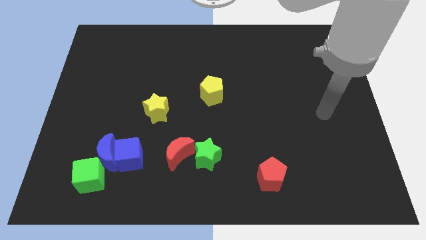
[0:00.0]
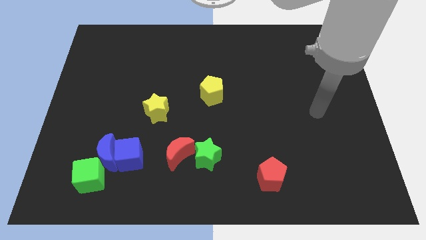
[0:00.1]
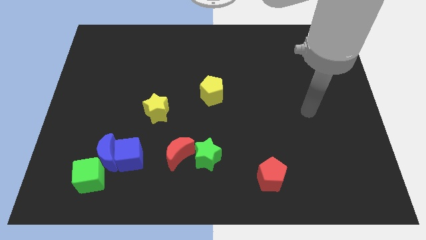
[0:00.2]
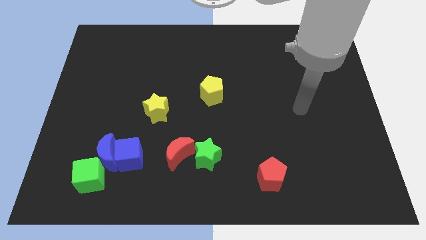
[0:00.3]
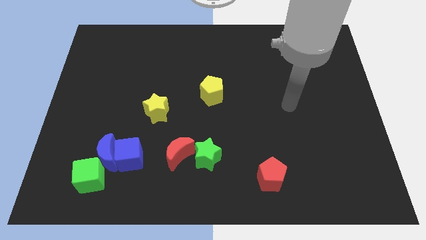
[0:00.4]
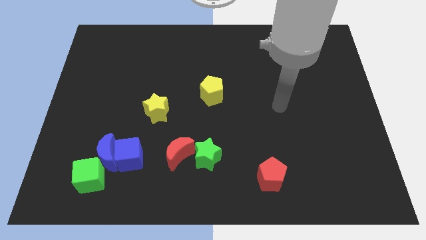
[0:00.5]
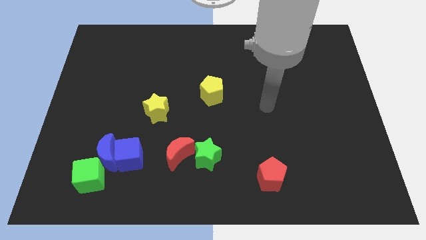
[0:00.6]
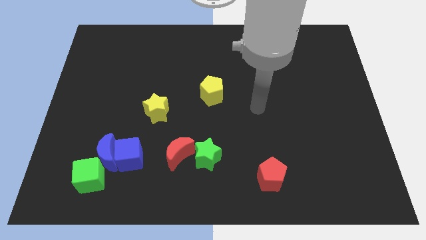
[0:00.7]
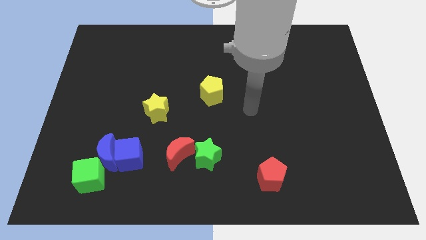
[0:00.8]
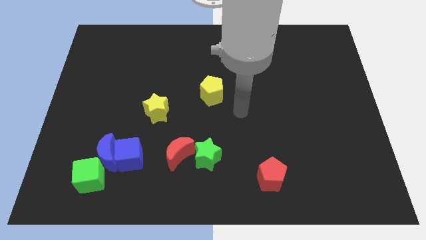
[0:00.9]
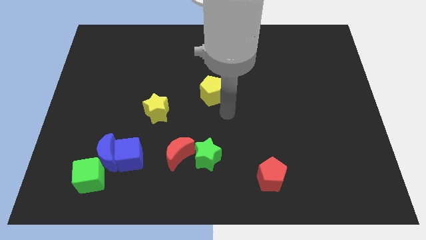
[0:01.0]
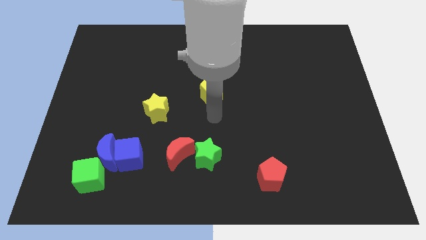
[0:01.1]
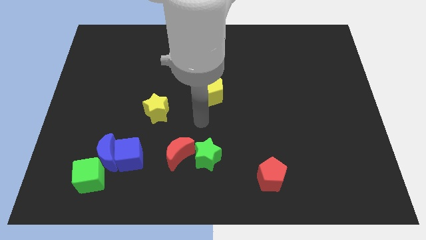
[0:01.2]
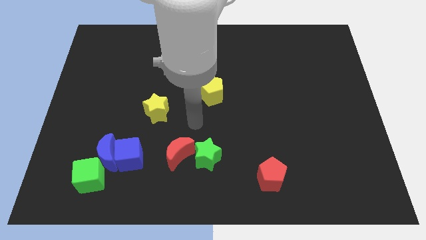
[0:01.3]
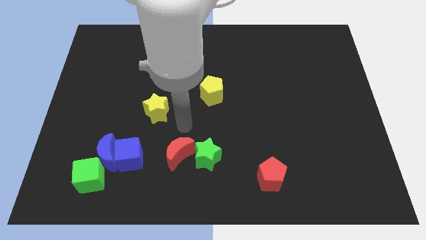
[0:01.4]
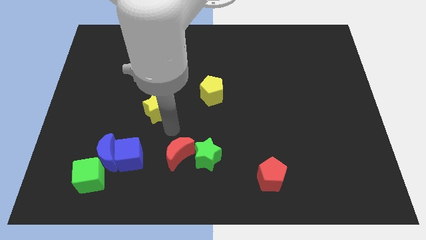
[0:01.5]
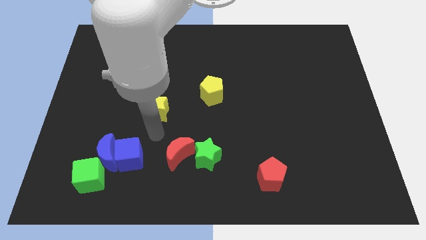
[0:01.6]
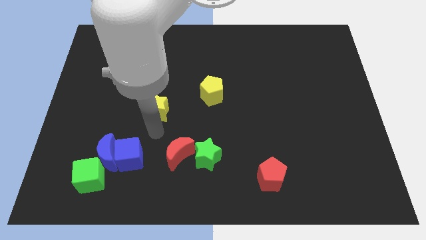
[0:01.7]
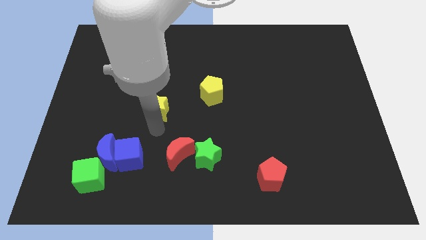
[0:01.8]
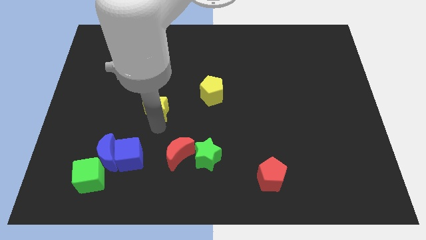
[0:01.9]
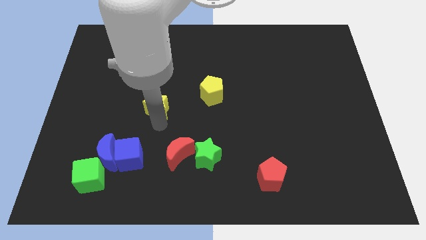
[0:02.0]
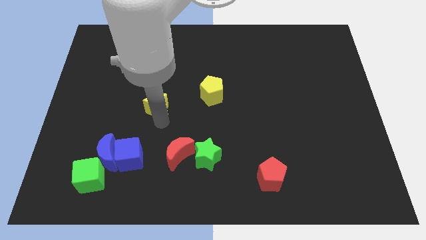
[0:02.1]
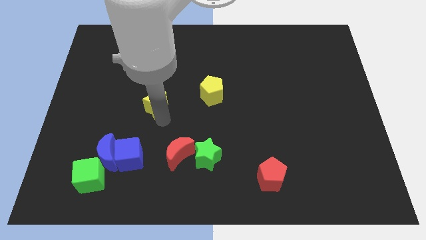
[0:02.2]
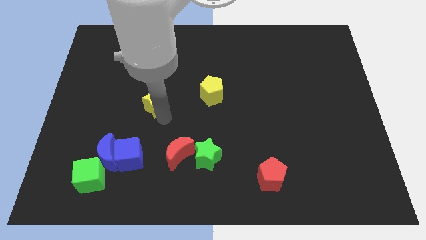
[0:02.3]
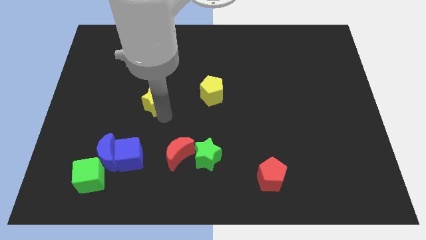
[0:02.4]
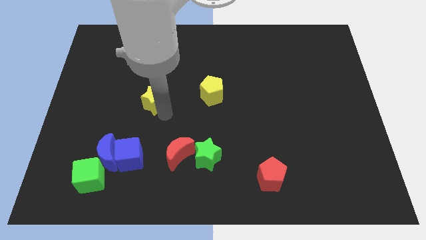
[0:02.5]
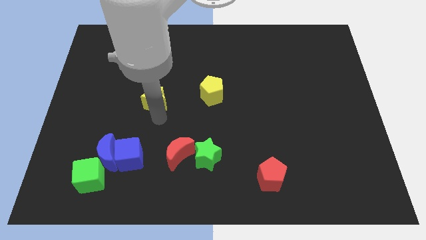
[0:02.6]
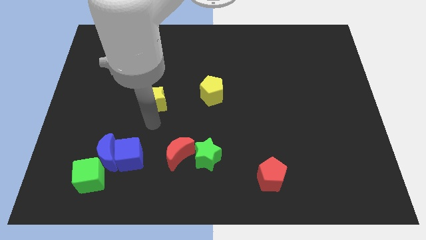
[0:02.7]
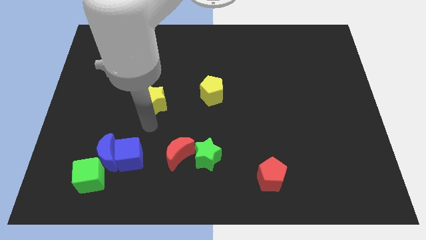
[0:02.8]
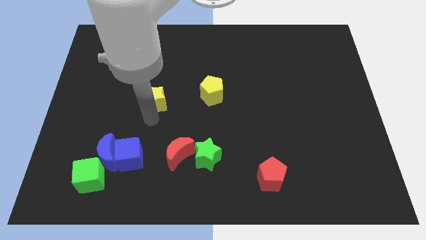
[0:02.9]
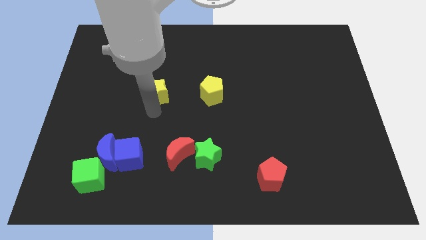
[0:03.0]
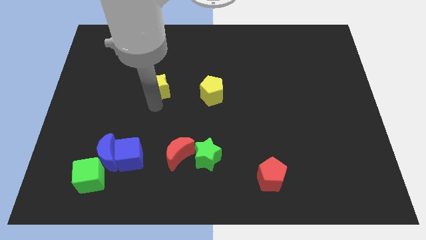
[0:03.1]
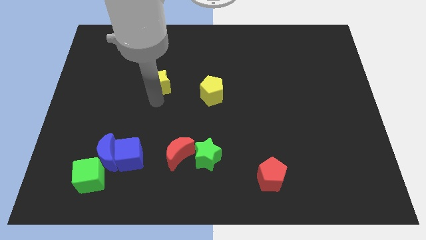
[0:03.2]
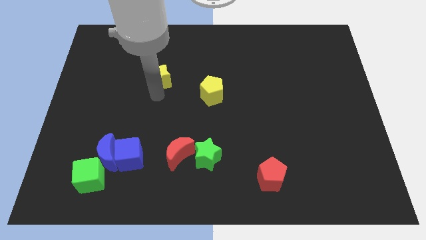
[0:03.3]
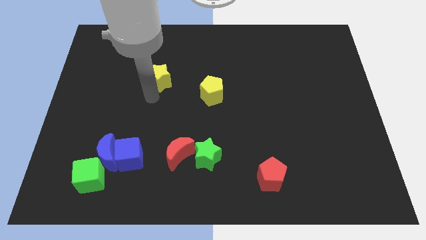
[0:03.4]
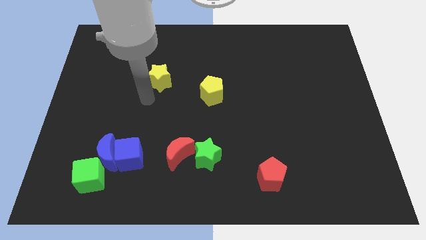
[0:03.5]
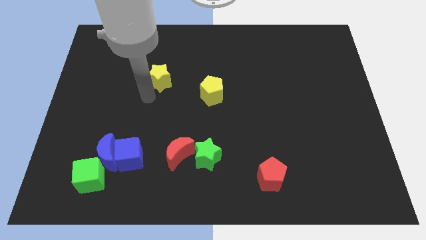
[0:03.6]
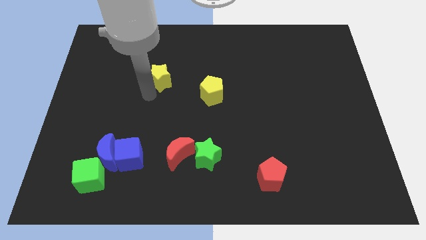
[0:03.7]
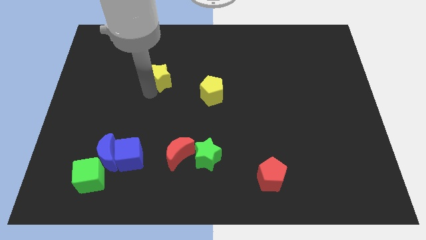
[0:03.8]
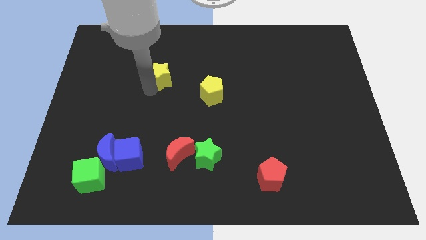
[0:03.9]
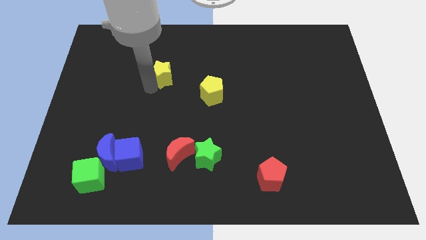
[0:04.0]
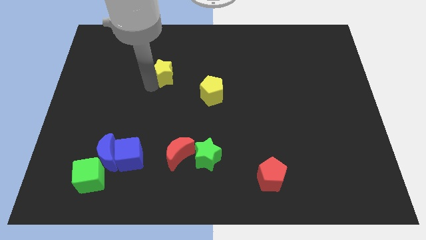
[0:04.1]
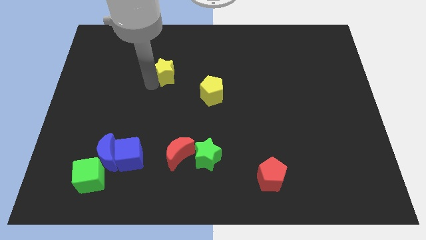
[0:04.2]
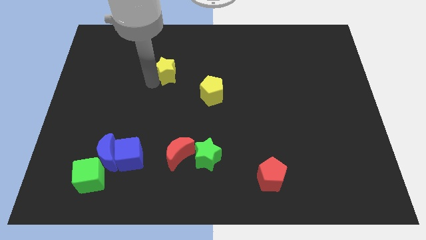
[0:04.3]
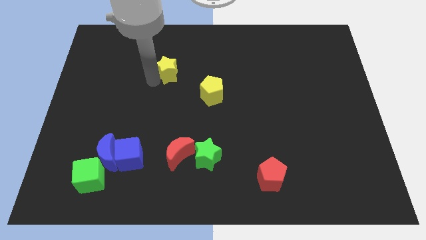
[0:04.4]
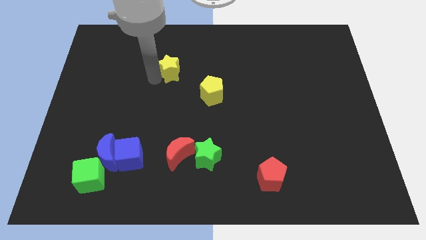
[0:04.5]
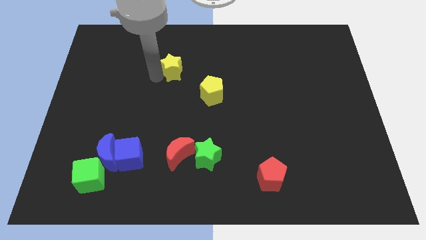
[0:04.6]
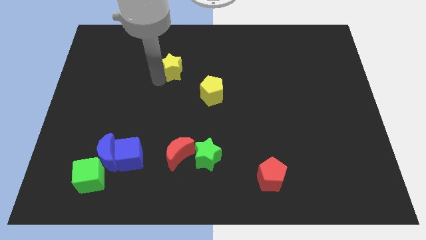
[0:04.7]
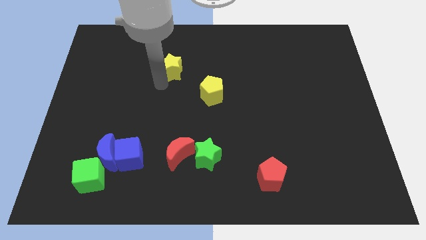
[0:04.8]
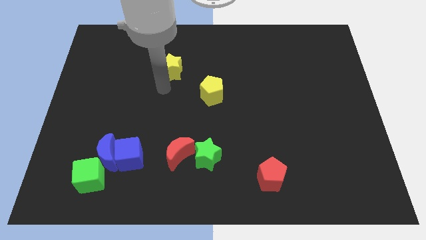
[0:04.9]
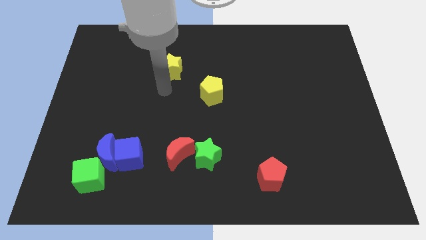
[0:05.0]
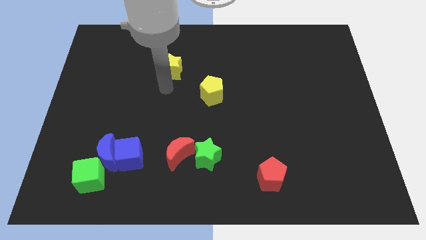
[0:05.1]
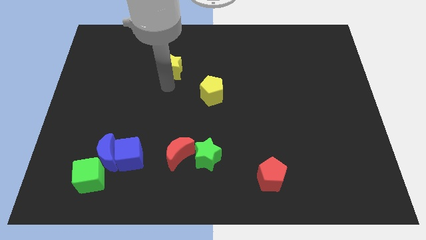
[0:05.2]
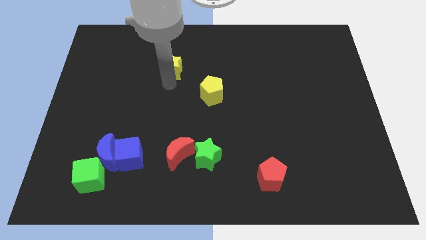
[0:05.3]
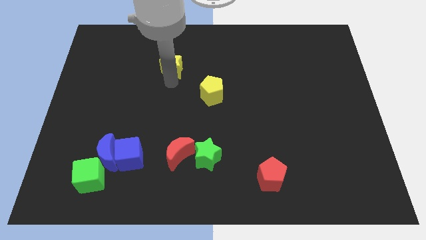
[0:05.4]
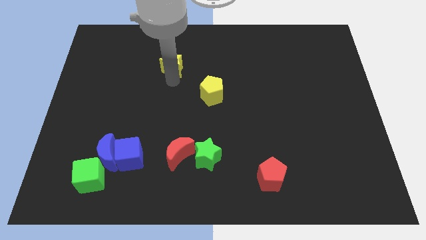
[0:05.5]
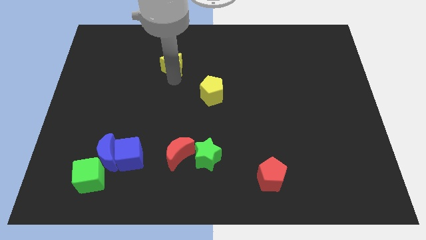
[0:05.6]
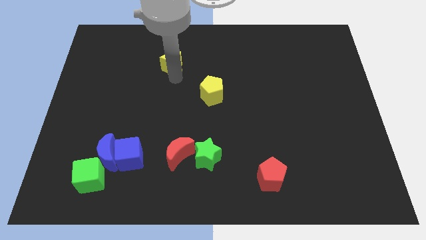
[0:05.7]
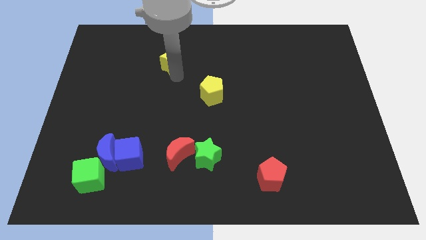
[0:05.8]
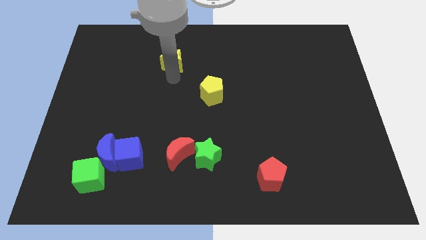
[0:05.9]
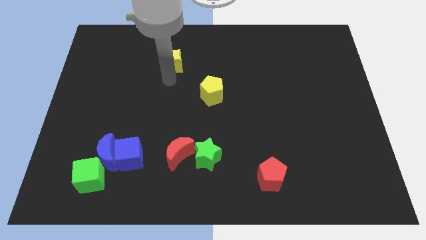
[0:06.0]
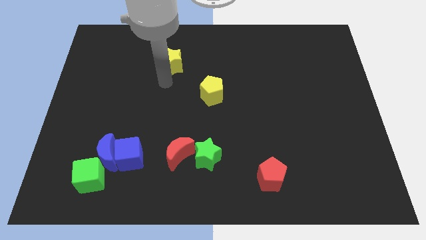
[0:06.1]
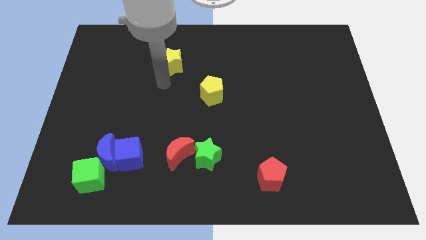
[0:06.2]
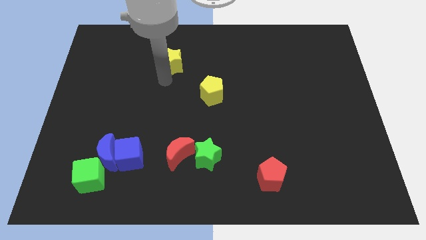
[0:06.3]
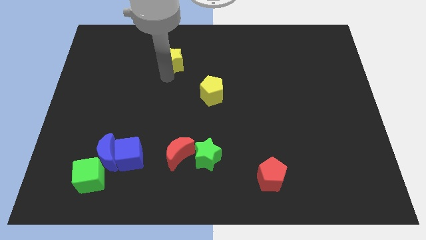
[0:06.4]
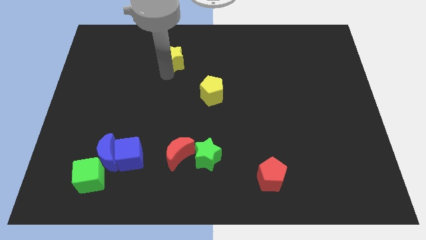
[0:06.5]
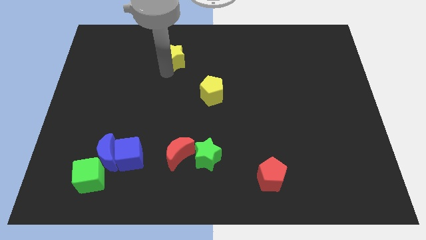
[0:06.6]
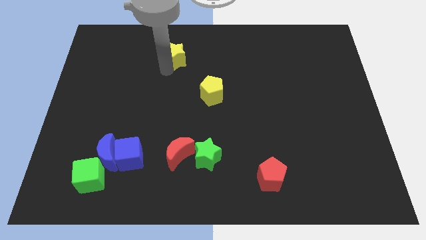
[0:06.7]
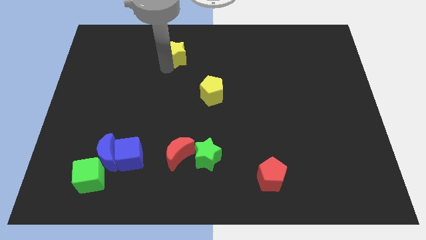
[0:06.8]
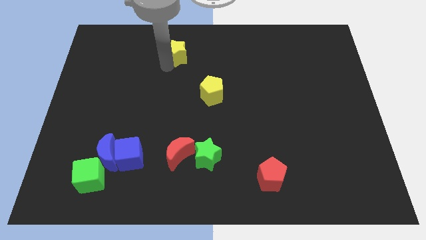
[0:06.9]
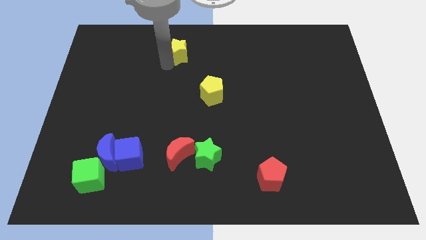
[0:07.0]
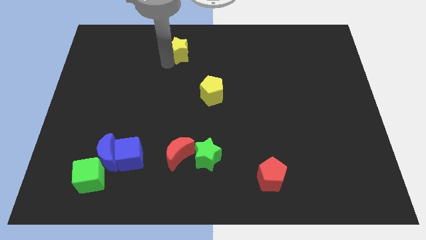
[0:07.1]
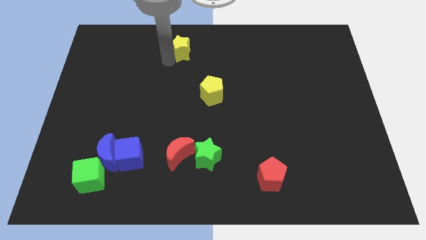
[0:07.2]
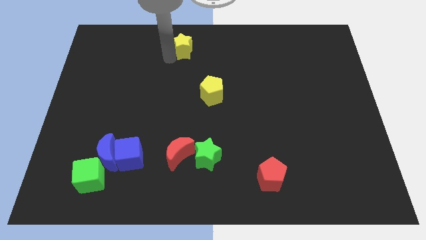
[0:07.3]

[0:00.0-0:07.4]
move the yellow star to the top side
